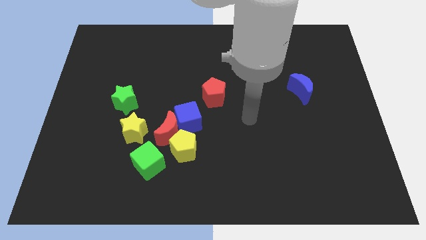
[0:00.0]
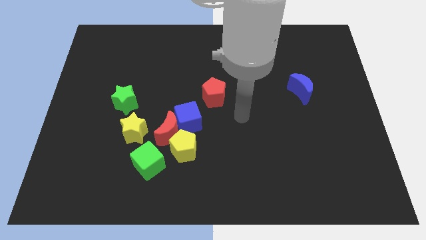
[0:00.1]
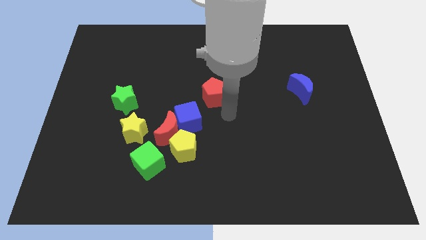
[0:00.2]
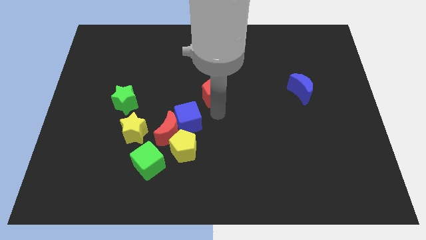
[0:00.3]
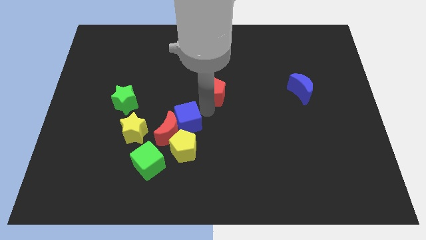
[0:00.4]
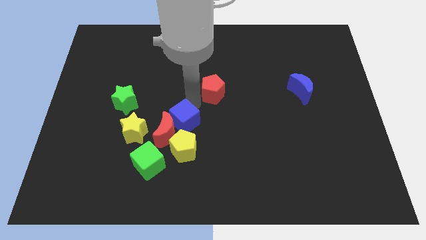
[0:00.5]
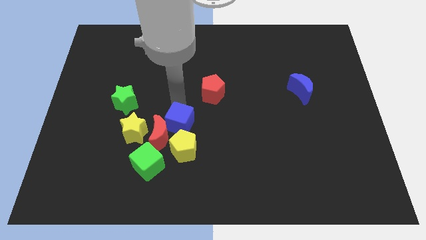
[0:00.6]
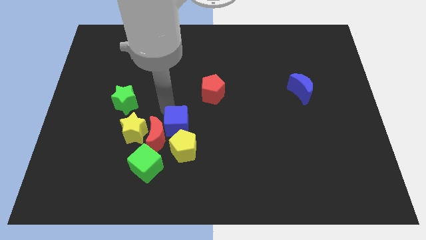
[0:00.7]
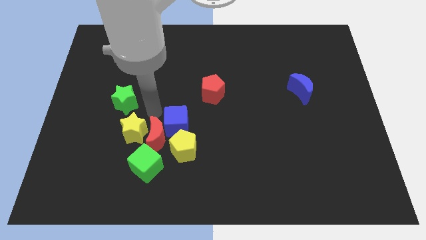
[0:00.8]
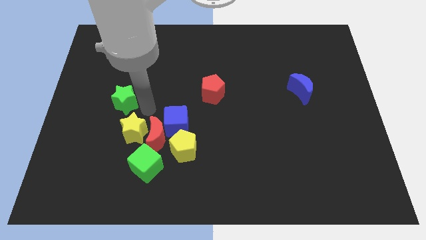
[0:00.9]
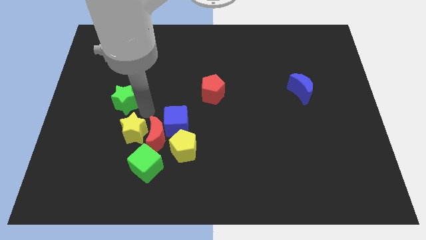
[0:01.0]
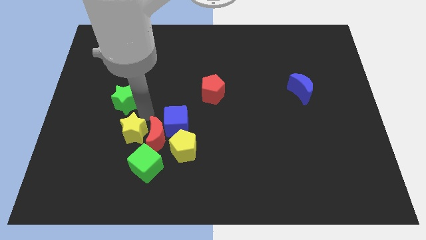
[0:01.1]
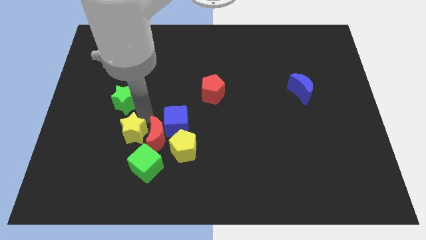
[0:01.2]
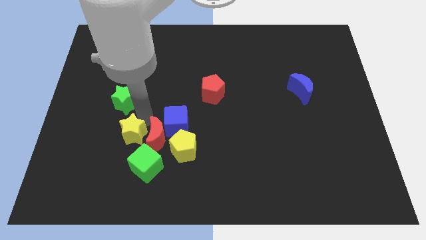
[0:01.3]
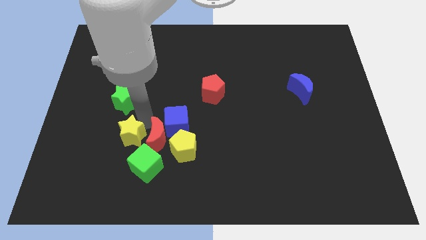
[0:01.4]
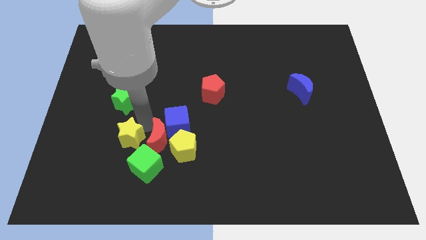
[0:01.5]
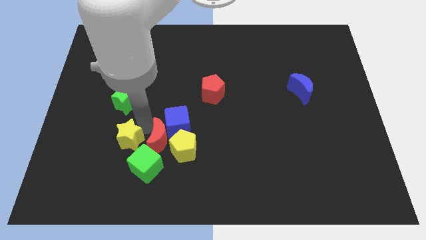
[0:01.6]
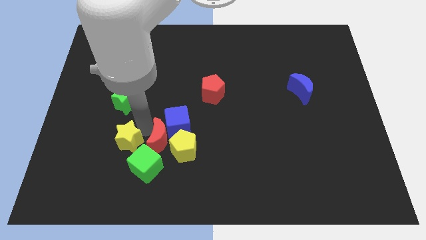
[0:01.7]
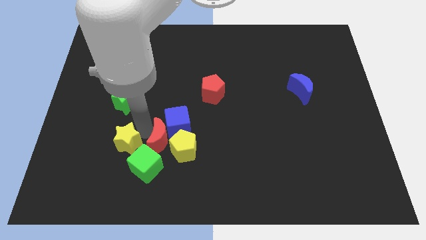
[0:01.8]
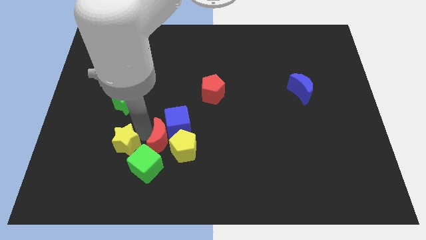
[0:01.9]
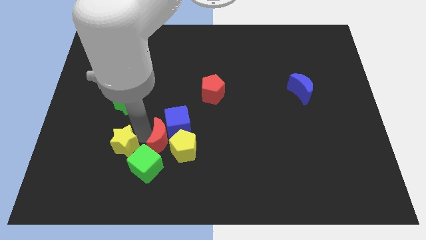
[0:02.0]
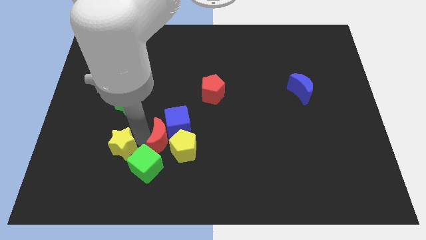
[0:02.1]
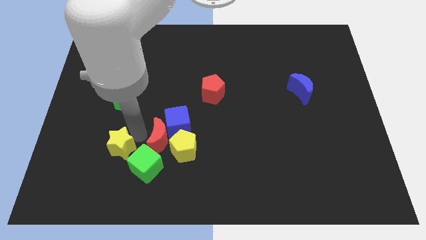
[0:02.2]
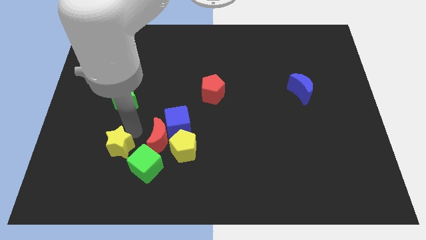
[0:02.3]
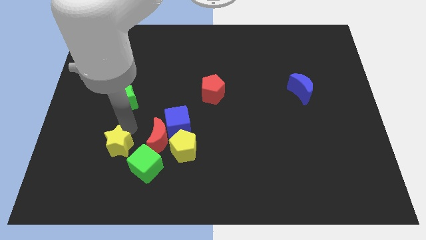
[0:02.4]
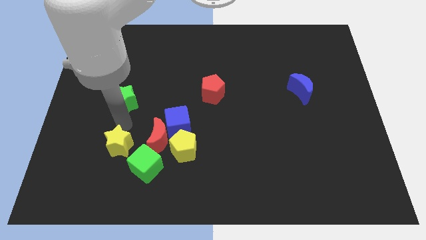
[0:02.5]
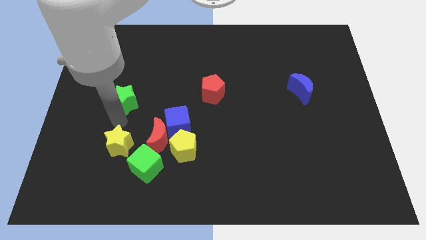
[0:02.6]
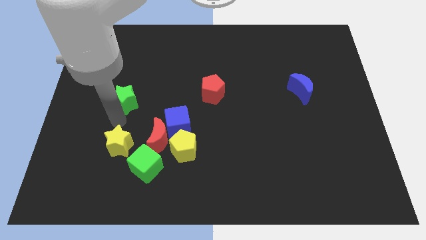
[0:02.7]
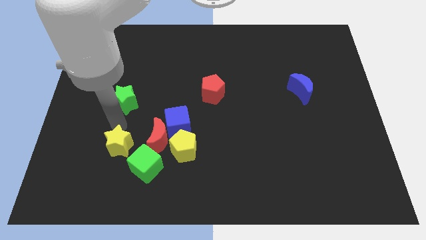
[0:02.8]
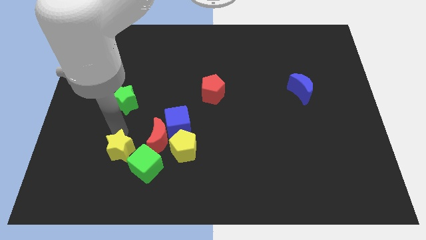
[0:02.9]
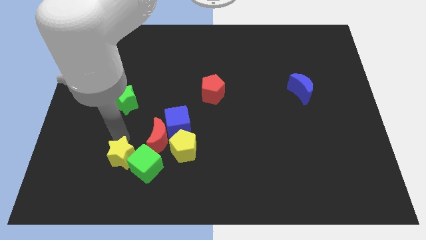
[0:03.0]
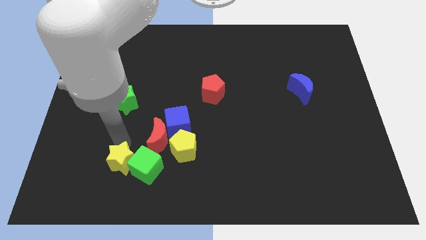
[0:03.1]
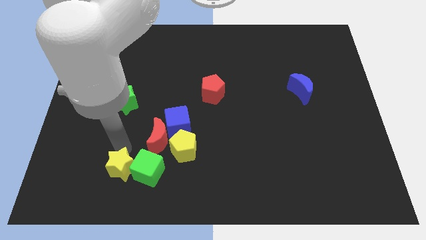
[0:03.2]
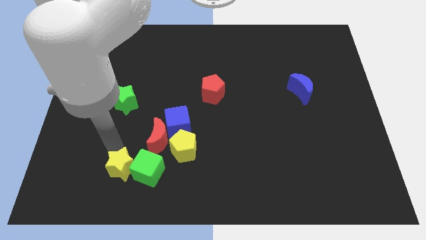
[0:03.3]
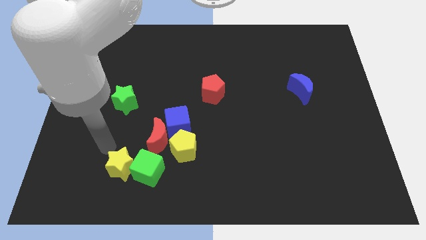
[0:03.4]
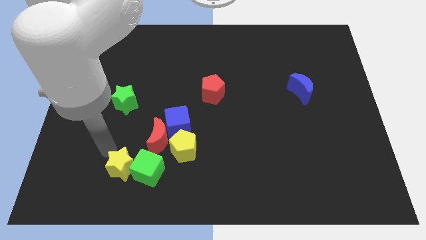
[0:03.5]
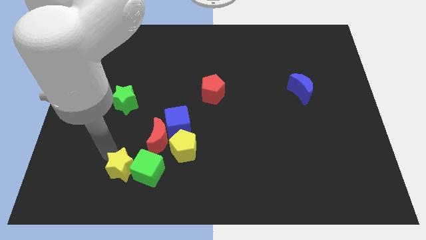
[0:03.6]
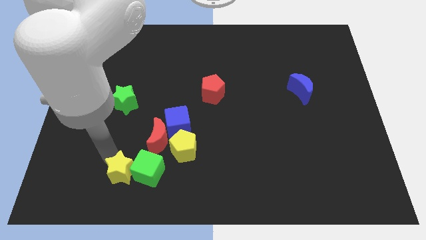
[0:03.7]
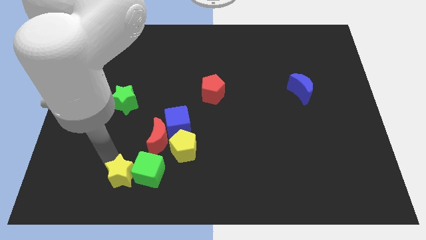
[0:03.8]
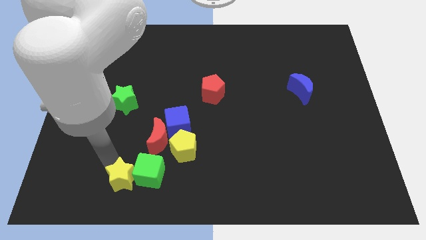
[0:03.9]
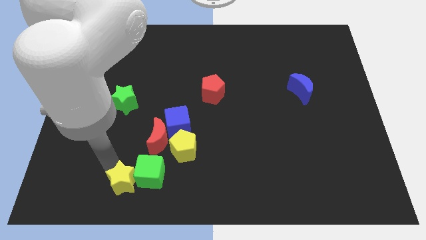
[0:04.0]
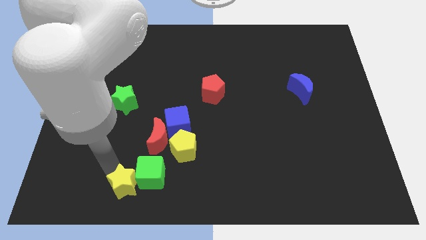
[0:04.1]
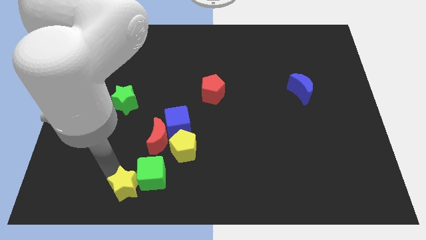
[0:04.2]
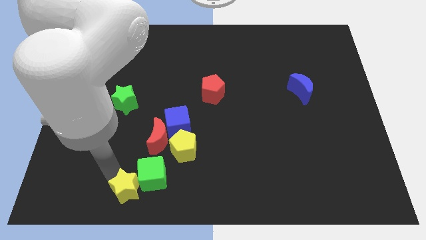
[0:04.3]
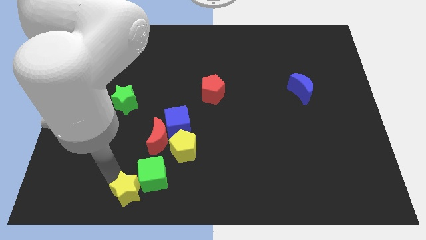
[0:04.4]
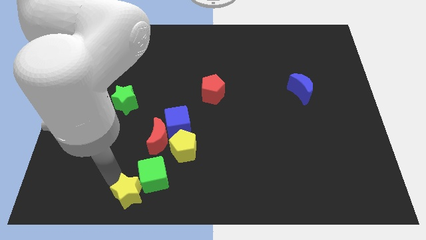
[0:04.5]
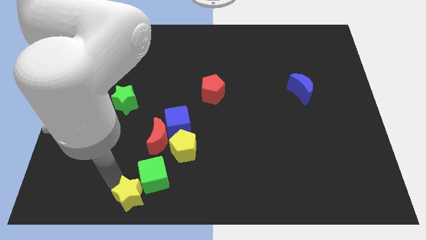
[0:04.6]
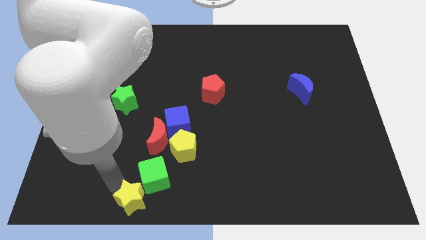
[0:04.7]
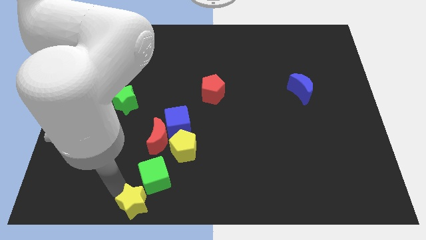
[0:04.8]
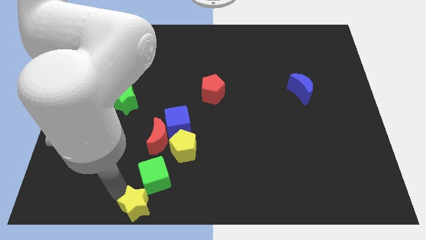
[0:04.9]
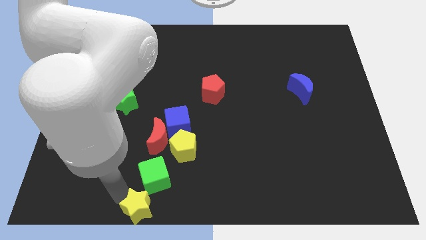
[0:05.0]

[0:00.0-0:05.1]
move the yellow star to the bottom

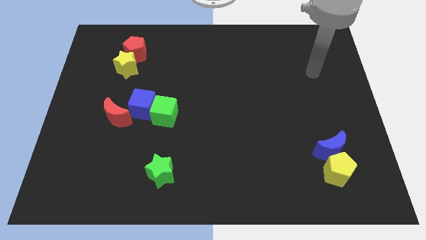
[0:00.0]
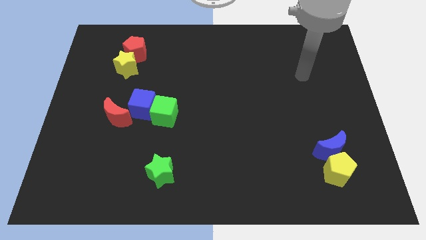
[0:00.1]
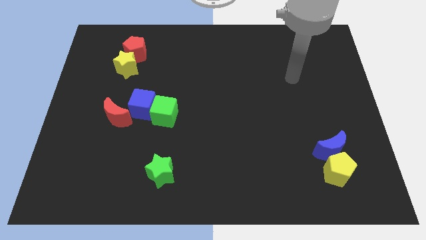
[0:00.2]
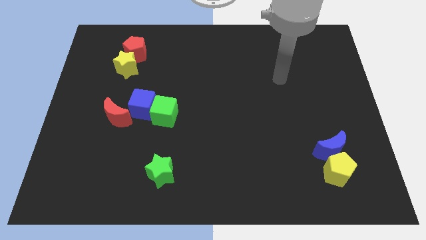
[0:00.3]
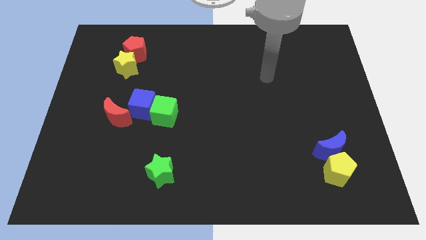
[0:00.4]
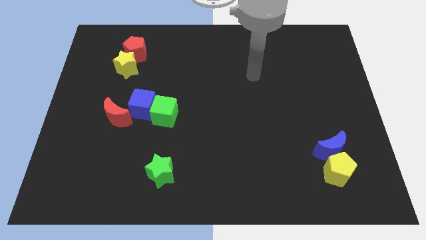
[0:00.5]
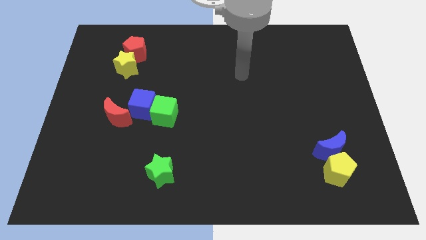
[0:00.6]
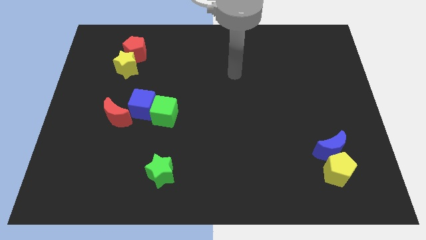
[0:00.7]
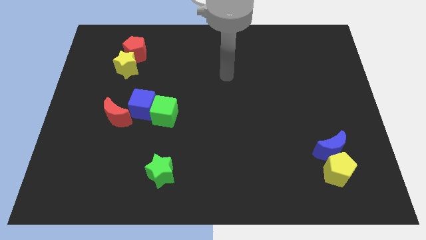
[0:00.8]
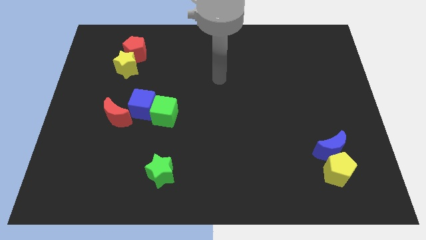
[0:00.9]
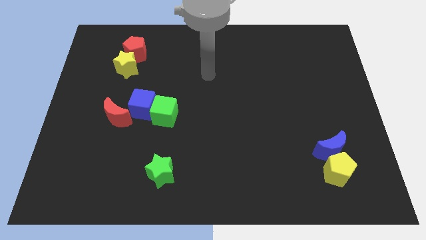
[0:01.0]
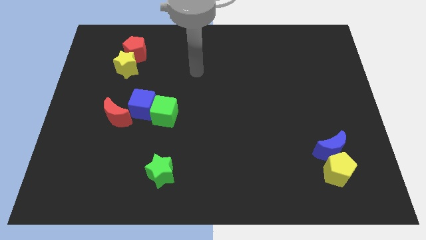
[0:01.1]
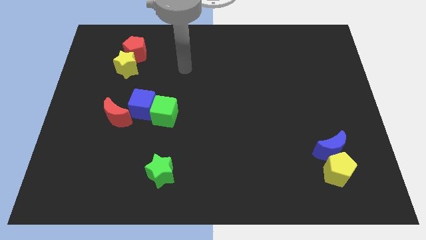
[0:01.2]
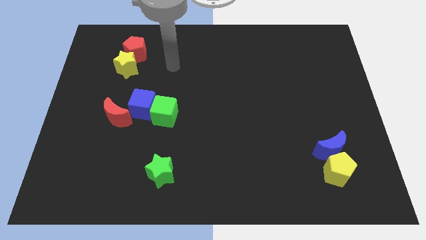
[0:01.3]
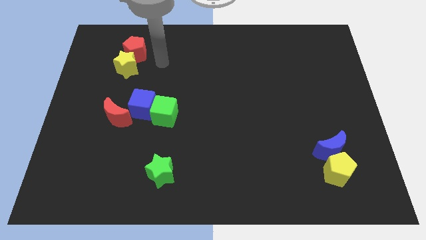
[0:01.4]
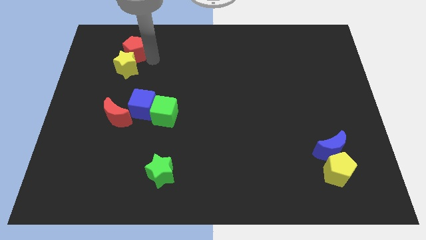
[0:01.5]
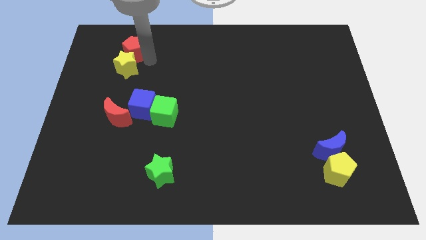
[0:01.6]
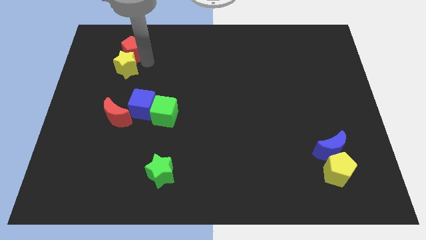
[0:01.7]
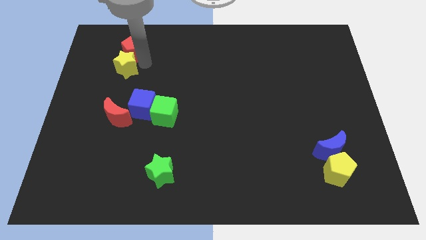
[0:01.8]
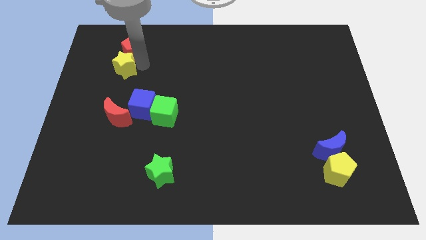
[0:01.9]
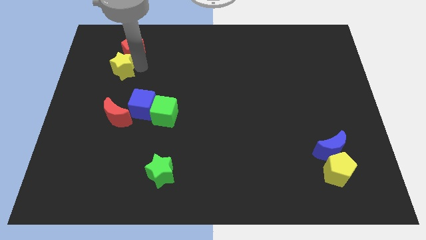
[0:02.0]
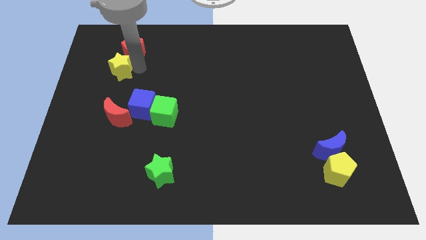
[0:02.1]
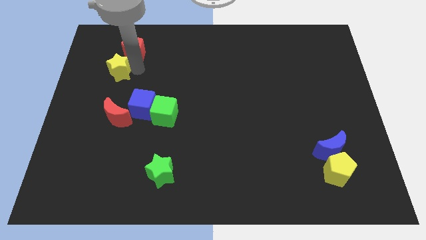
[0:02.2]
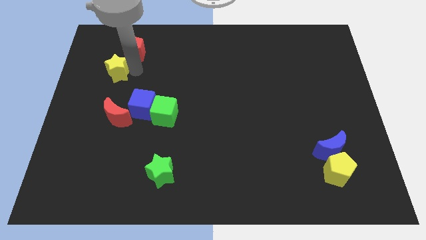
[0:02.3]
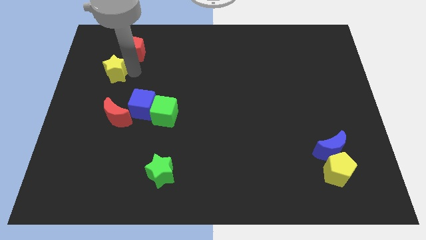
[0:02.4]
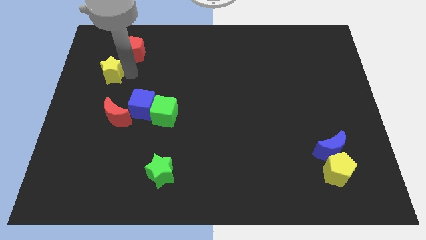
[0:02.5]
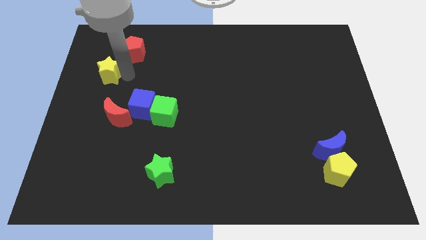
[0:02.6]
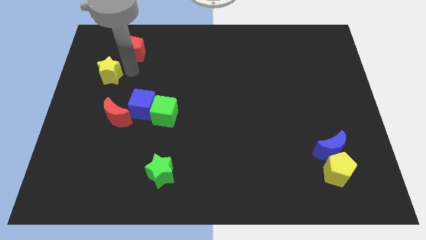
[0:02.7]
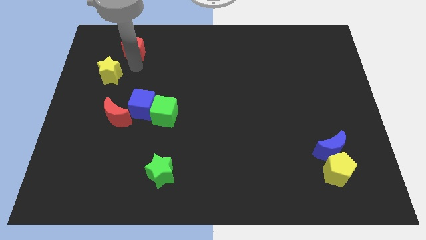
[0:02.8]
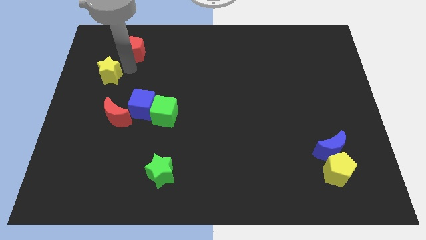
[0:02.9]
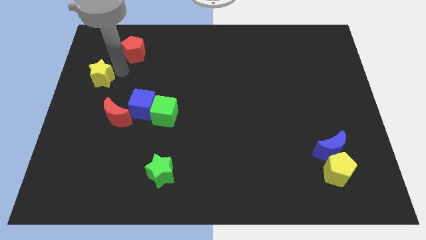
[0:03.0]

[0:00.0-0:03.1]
put the yellow star to the center left
